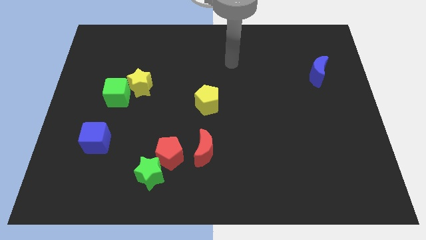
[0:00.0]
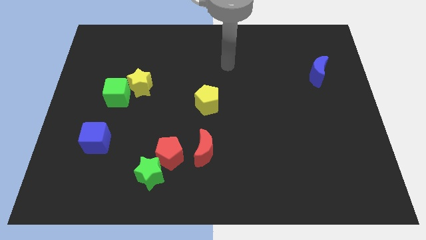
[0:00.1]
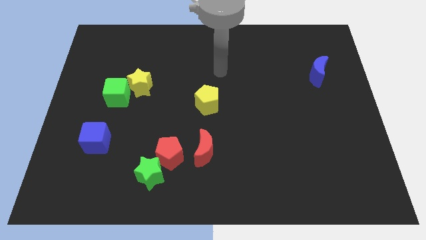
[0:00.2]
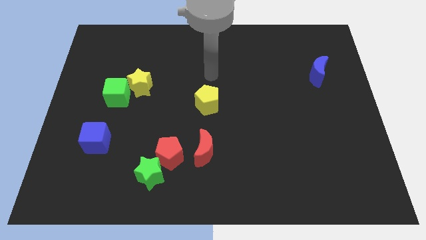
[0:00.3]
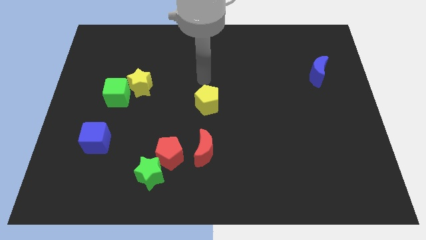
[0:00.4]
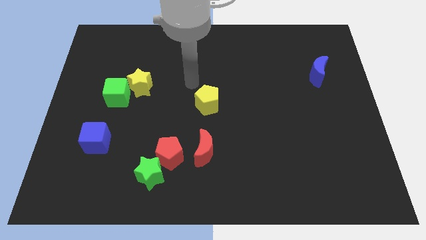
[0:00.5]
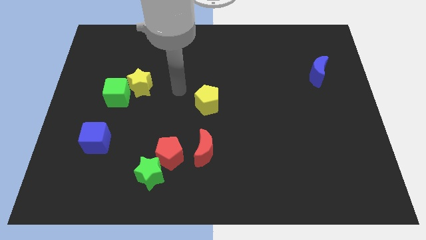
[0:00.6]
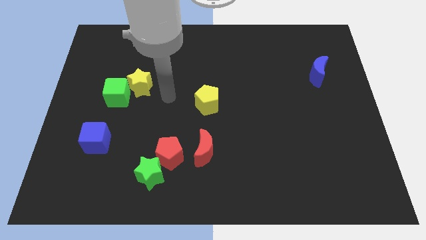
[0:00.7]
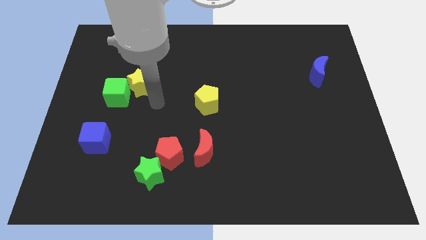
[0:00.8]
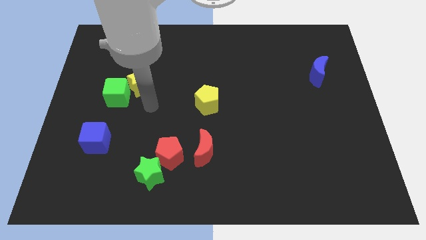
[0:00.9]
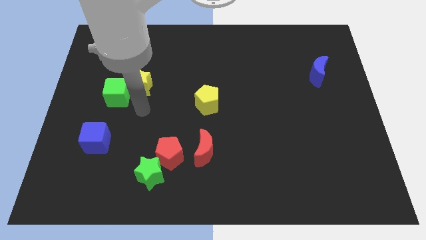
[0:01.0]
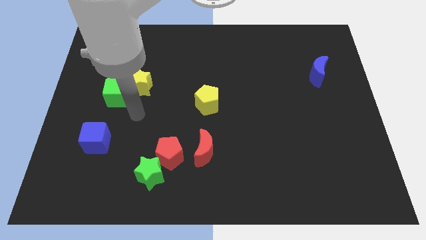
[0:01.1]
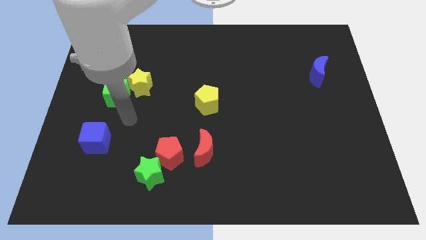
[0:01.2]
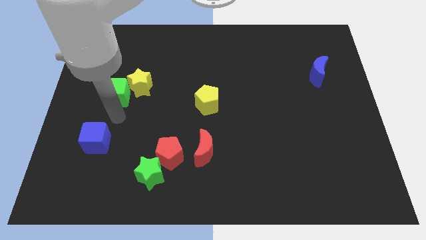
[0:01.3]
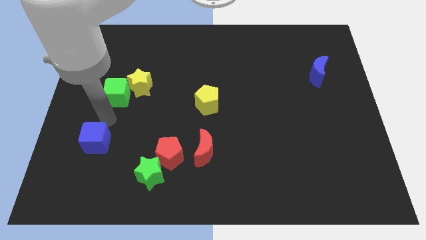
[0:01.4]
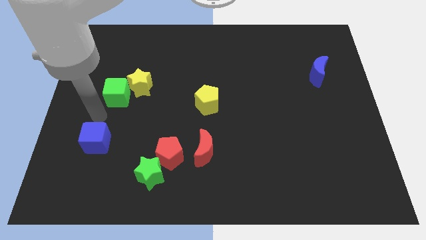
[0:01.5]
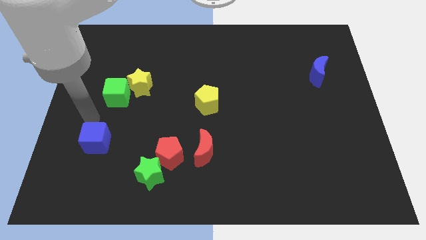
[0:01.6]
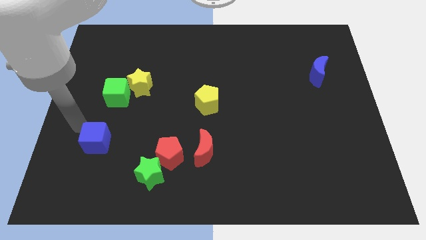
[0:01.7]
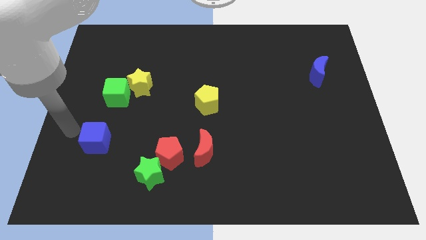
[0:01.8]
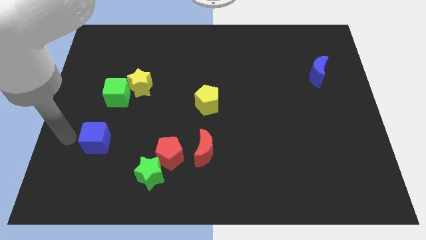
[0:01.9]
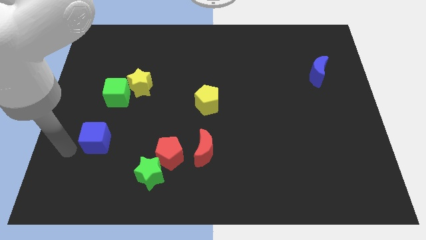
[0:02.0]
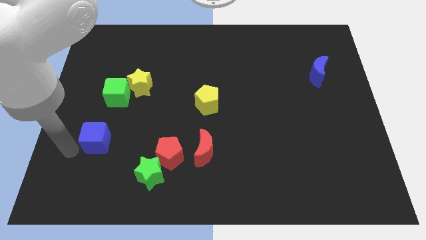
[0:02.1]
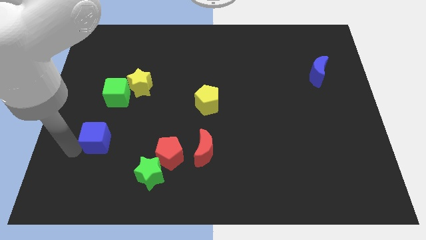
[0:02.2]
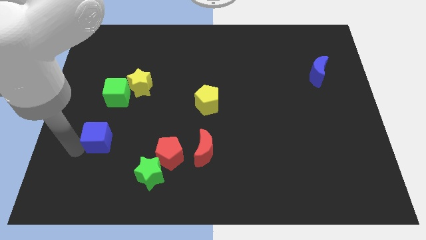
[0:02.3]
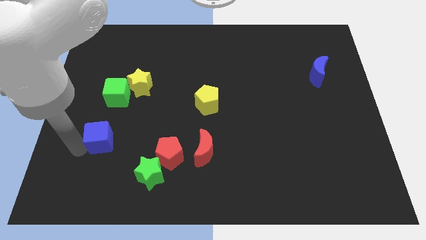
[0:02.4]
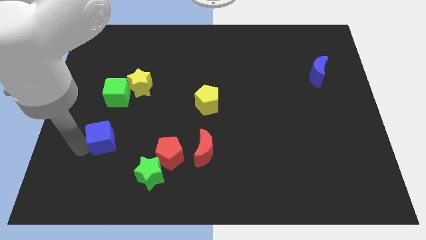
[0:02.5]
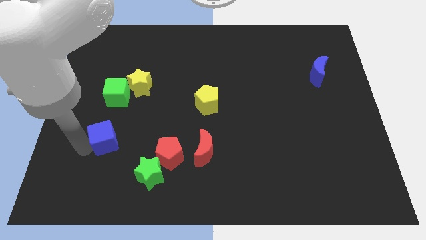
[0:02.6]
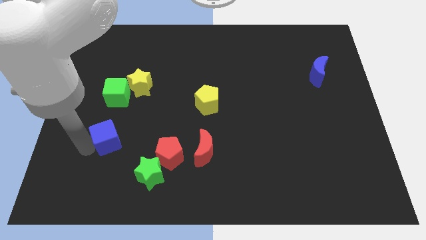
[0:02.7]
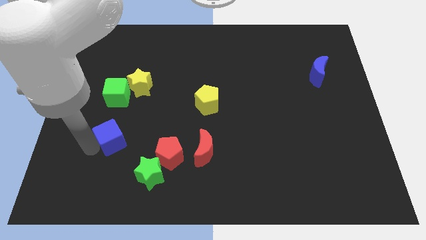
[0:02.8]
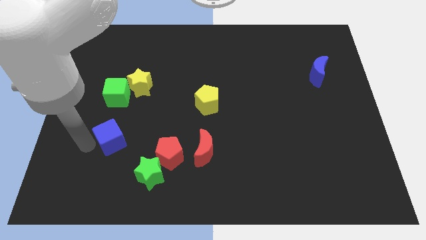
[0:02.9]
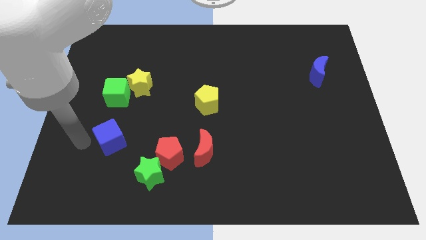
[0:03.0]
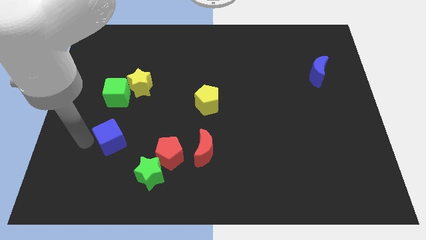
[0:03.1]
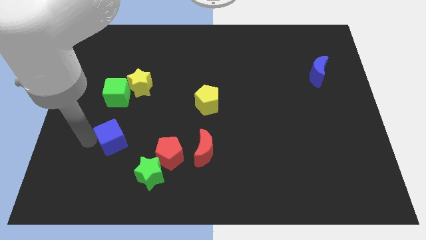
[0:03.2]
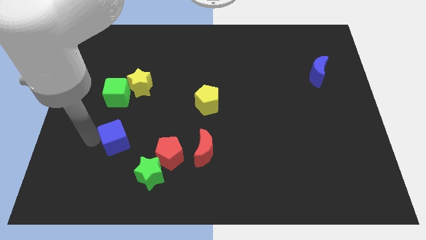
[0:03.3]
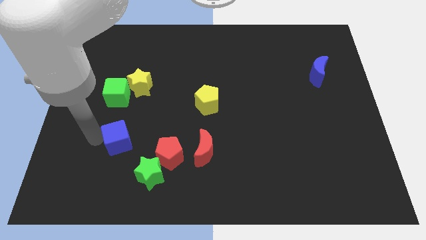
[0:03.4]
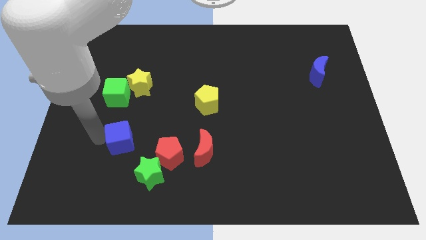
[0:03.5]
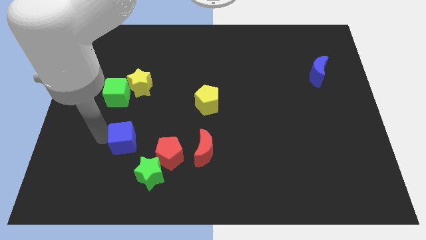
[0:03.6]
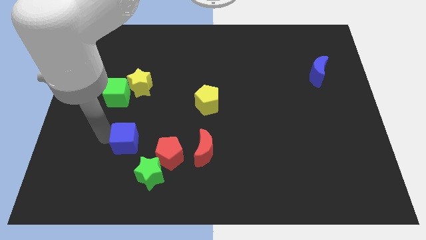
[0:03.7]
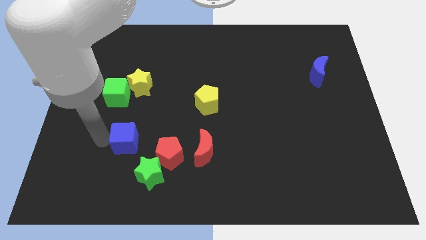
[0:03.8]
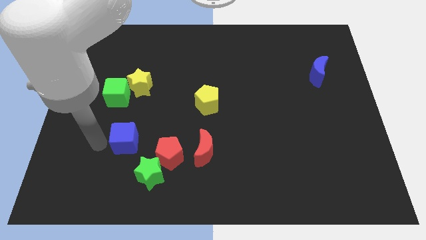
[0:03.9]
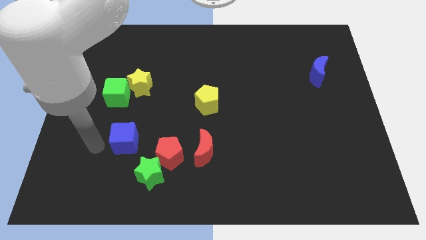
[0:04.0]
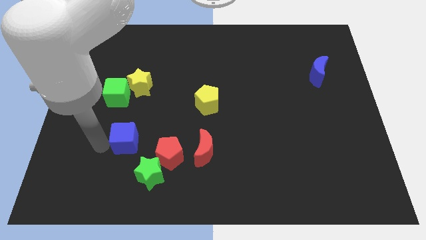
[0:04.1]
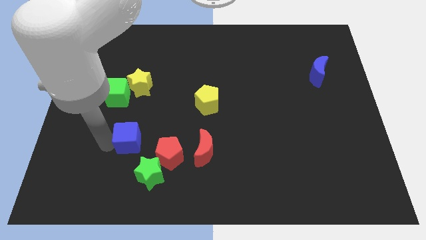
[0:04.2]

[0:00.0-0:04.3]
push the blue cube to the right a bit

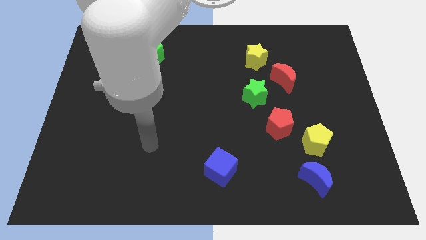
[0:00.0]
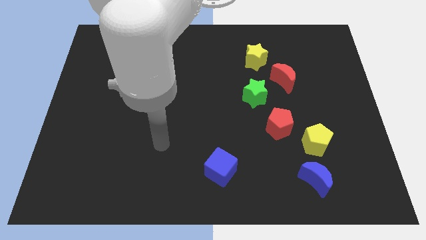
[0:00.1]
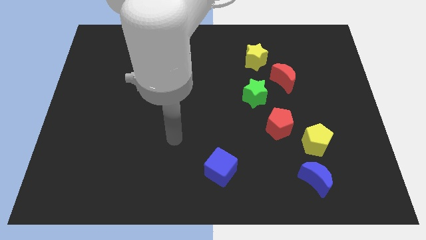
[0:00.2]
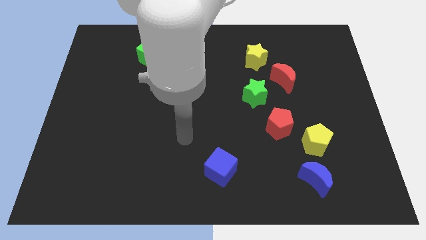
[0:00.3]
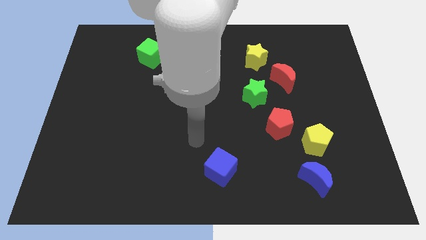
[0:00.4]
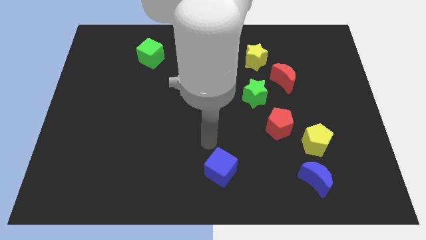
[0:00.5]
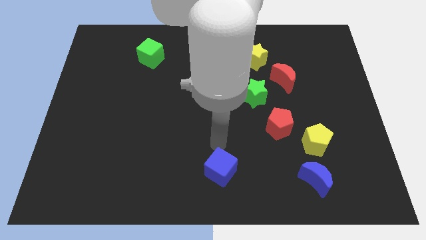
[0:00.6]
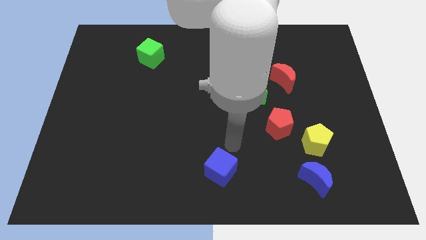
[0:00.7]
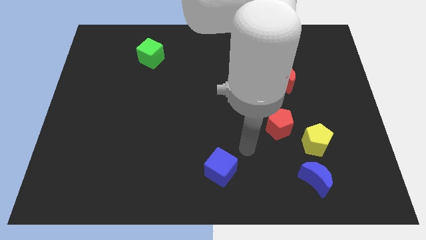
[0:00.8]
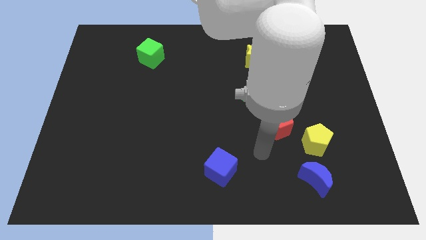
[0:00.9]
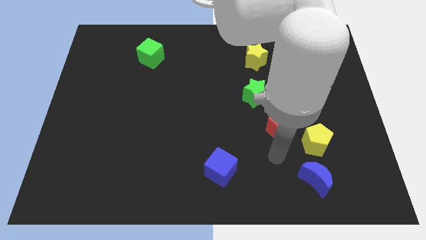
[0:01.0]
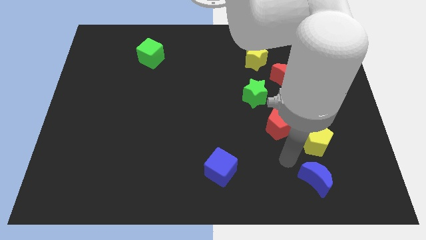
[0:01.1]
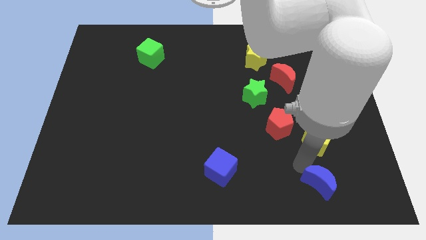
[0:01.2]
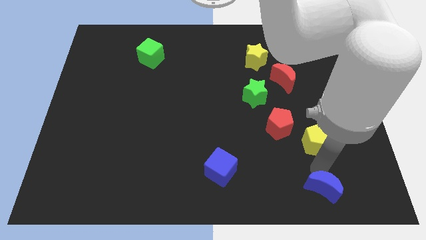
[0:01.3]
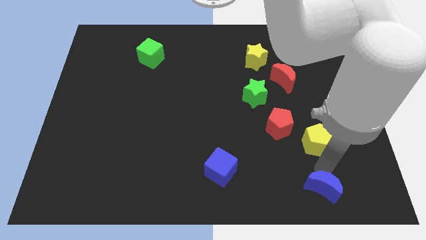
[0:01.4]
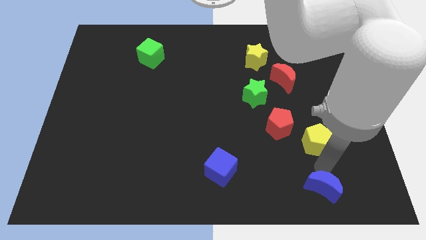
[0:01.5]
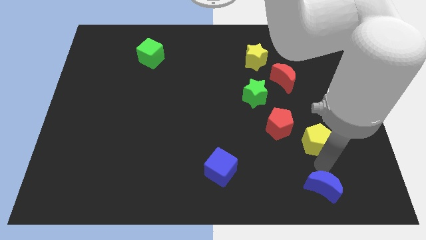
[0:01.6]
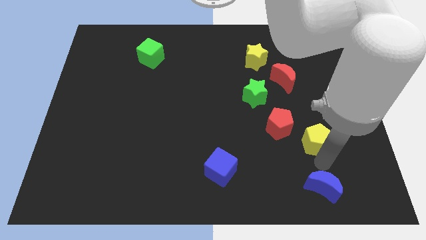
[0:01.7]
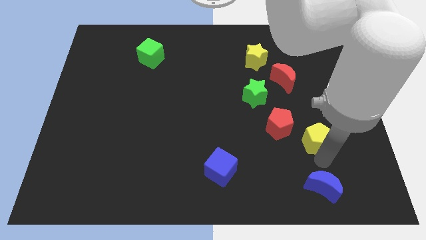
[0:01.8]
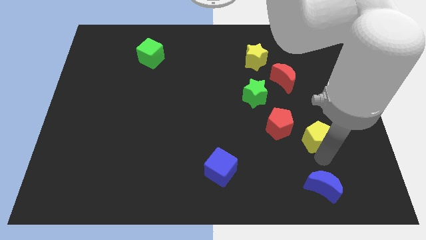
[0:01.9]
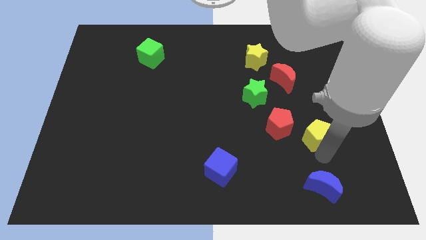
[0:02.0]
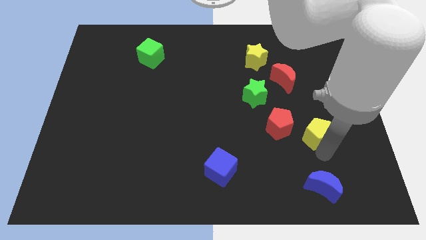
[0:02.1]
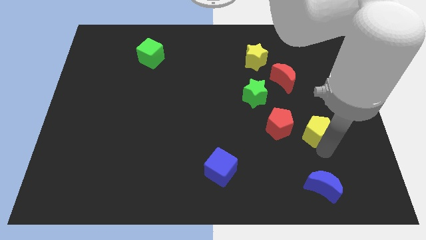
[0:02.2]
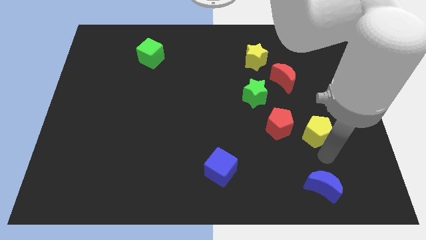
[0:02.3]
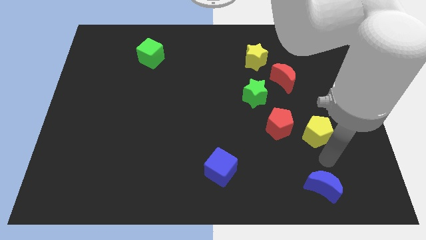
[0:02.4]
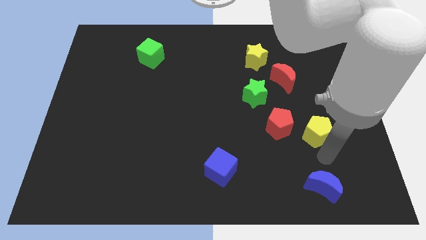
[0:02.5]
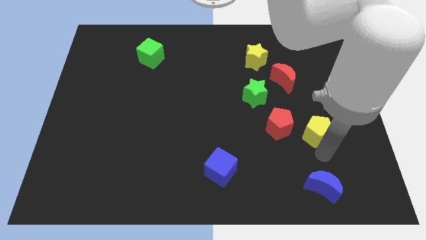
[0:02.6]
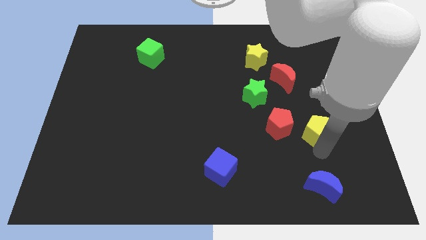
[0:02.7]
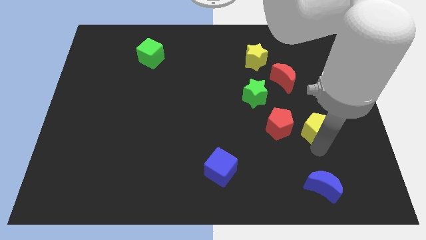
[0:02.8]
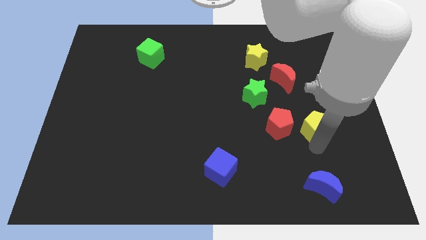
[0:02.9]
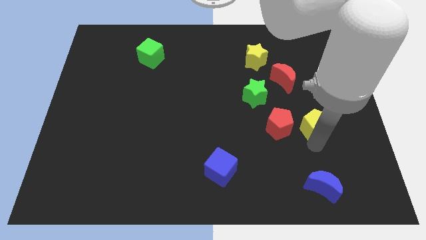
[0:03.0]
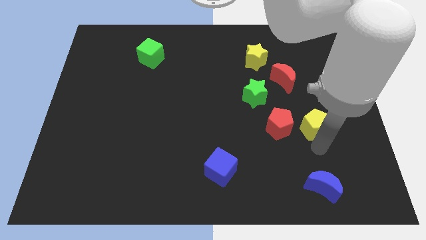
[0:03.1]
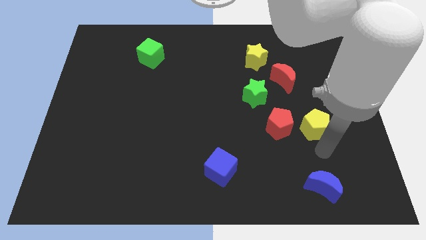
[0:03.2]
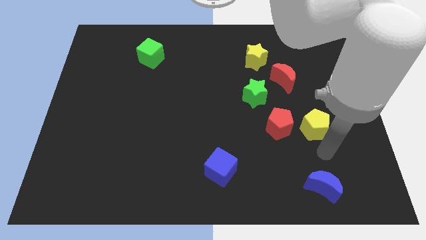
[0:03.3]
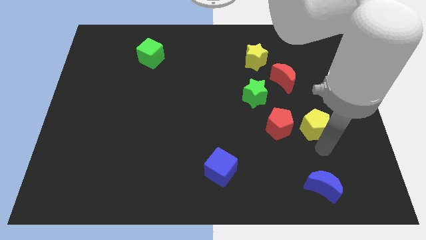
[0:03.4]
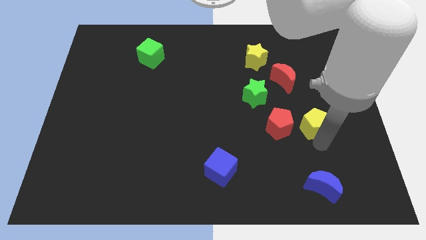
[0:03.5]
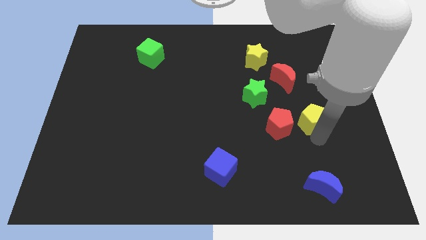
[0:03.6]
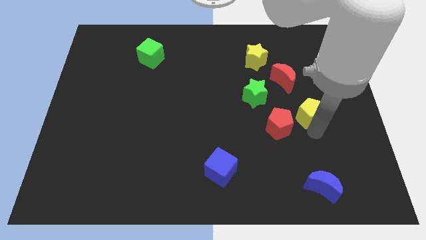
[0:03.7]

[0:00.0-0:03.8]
move the yellow pentagon upwards slightly
